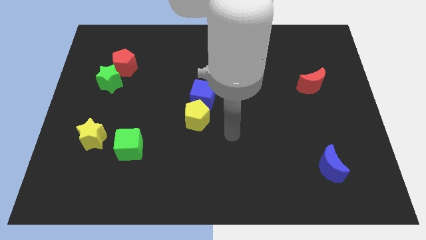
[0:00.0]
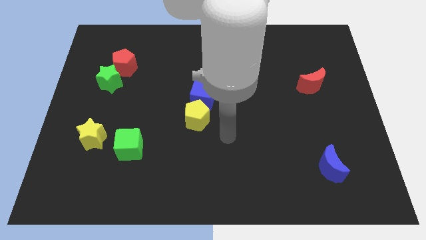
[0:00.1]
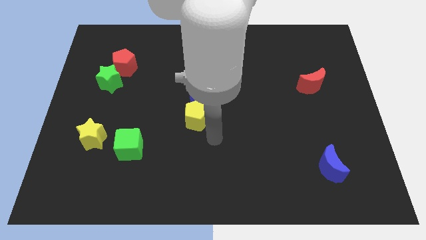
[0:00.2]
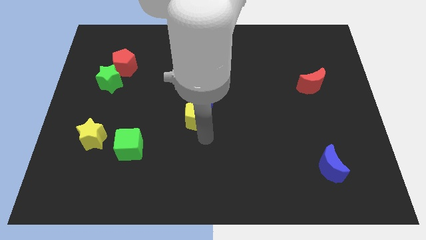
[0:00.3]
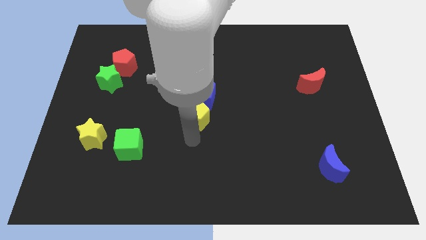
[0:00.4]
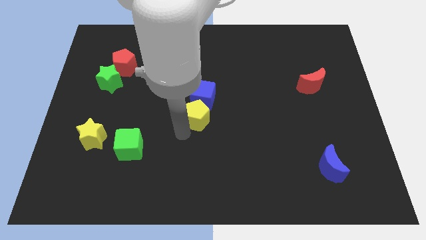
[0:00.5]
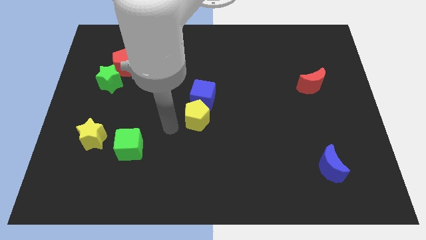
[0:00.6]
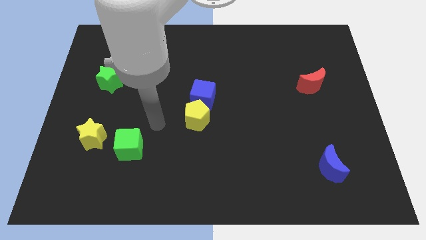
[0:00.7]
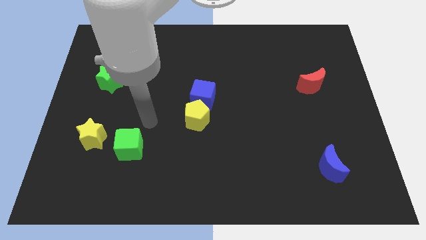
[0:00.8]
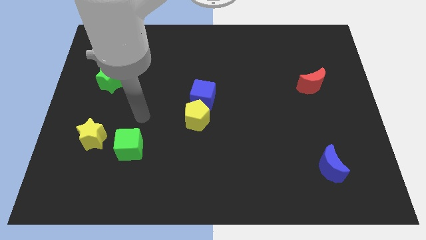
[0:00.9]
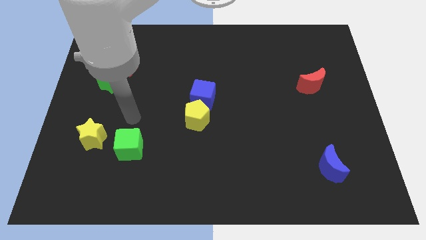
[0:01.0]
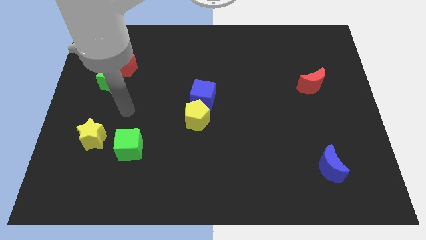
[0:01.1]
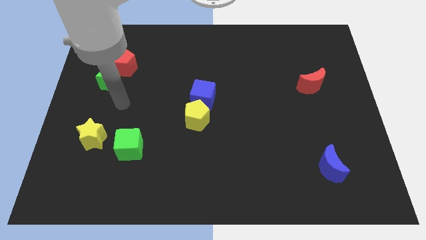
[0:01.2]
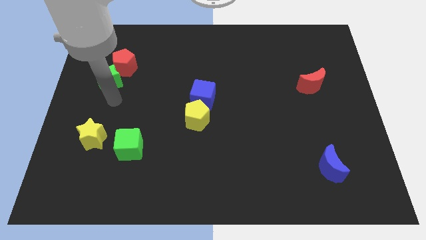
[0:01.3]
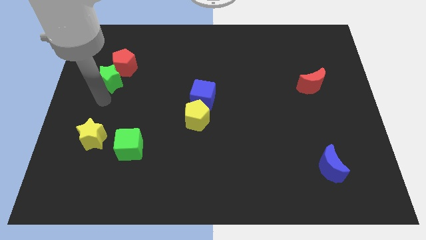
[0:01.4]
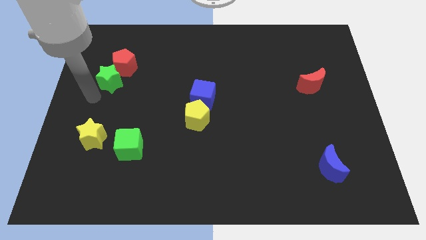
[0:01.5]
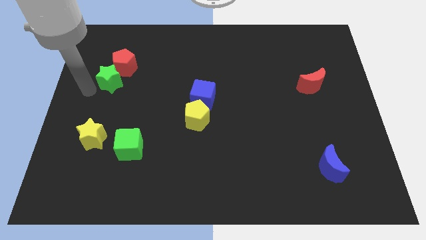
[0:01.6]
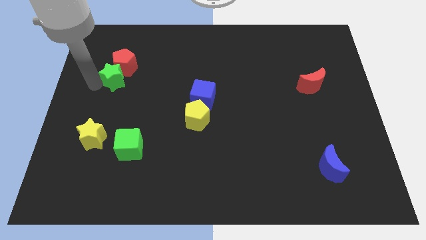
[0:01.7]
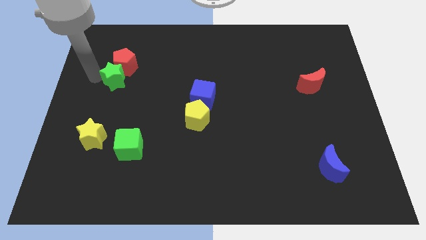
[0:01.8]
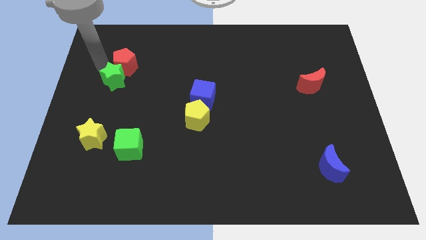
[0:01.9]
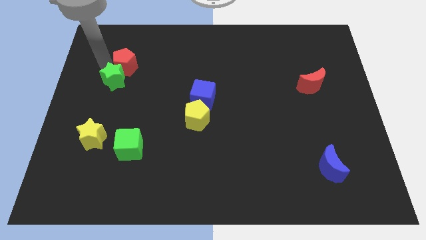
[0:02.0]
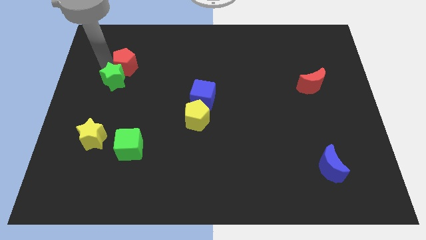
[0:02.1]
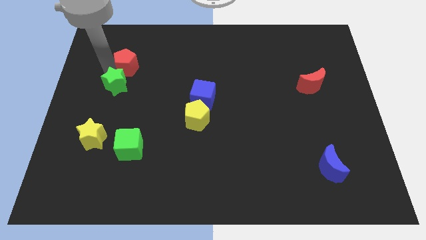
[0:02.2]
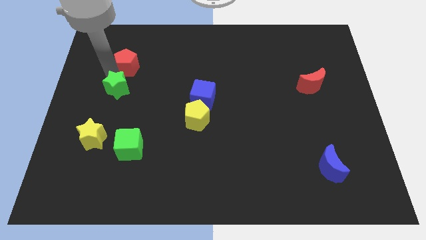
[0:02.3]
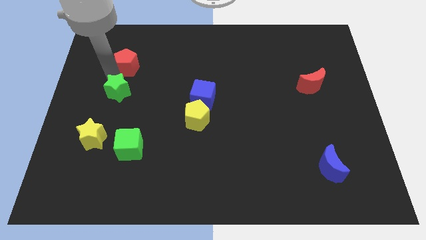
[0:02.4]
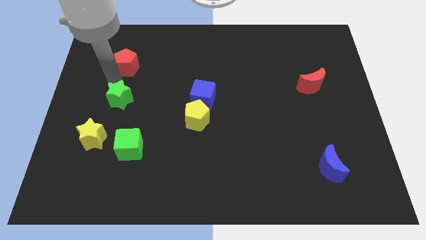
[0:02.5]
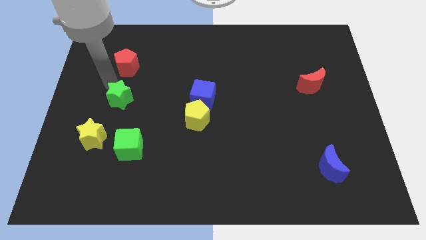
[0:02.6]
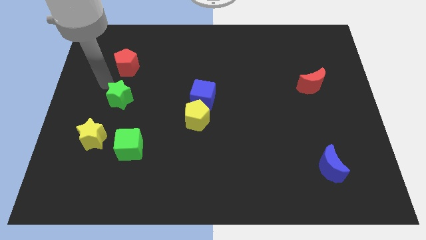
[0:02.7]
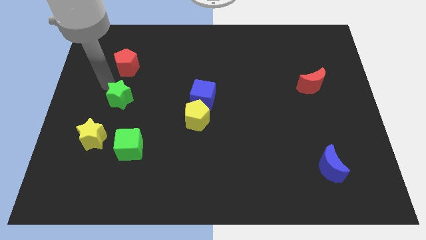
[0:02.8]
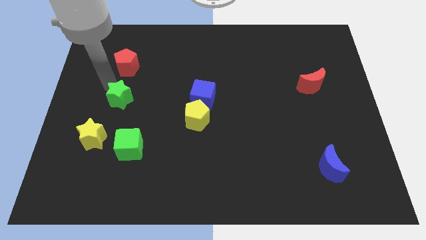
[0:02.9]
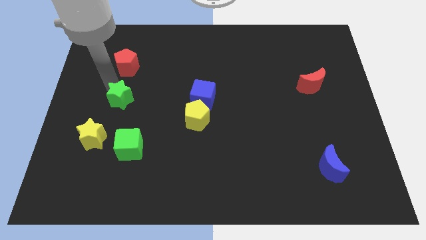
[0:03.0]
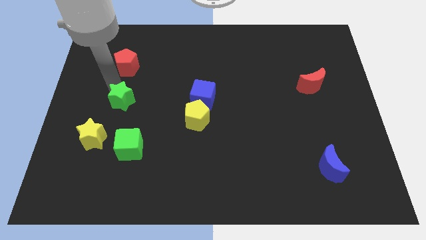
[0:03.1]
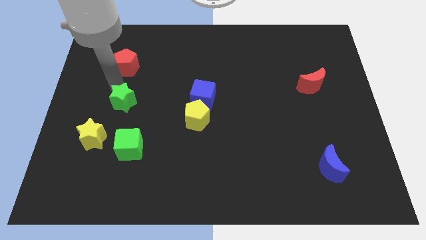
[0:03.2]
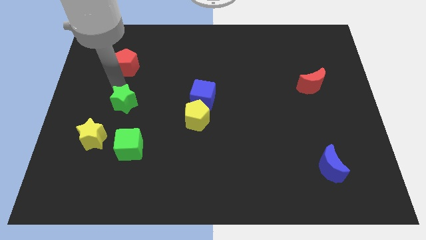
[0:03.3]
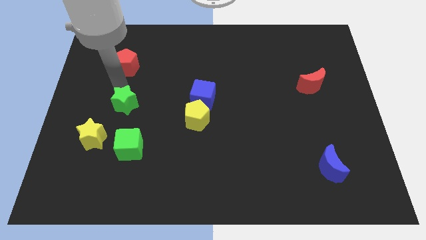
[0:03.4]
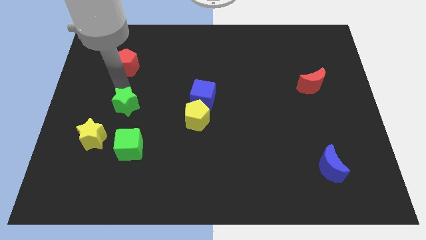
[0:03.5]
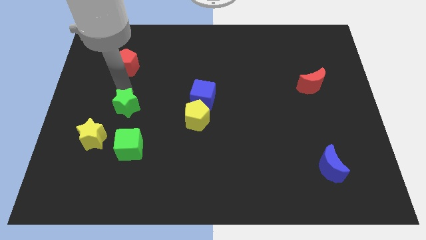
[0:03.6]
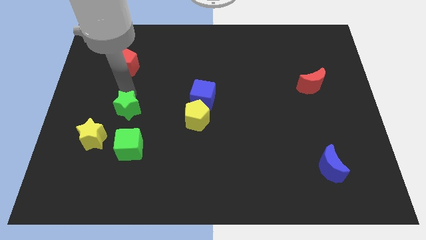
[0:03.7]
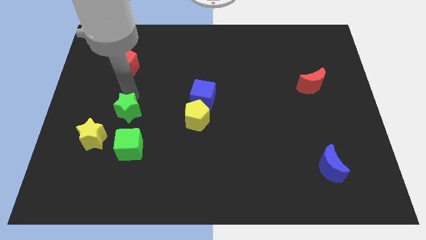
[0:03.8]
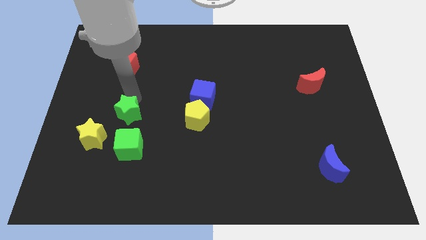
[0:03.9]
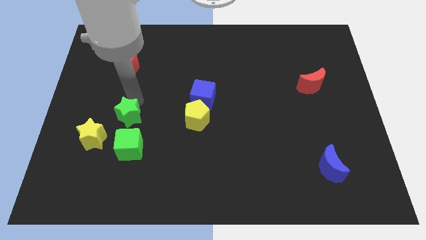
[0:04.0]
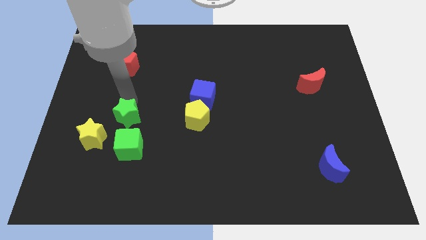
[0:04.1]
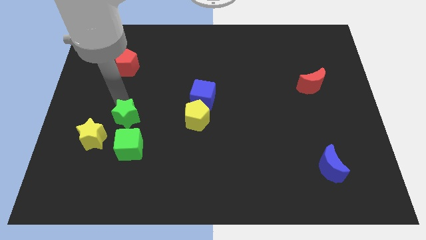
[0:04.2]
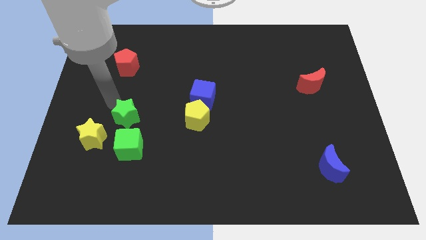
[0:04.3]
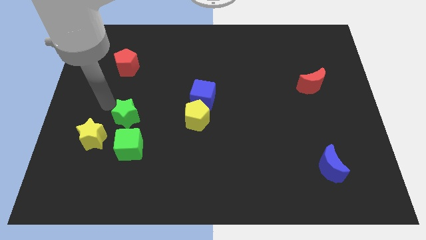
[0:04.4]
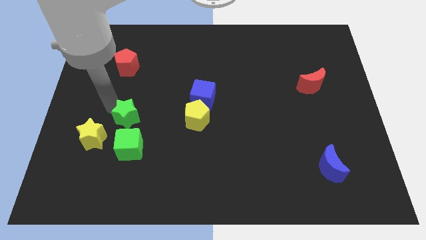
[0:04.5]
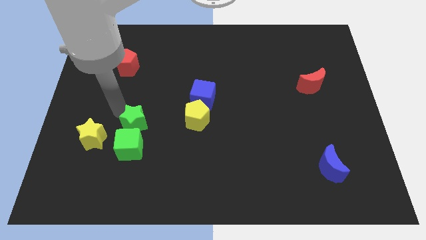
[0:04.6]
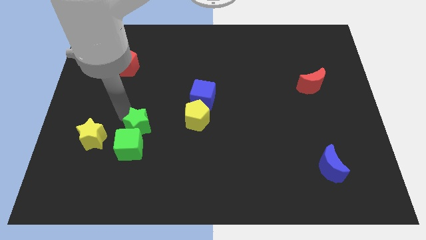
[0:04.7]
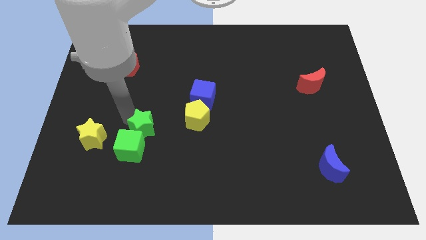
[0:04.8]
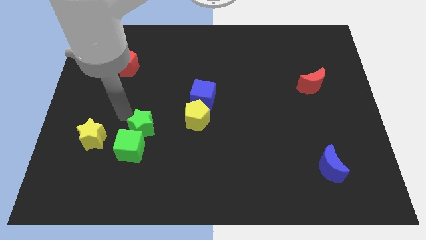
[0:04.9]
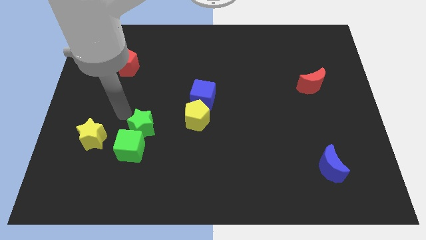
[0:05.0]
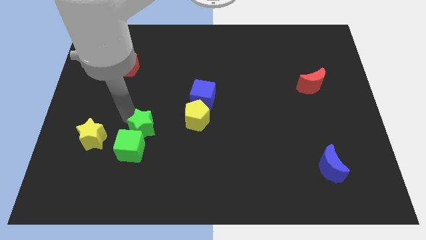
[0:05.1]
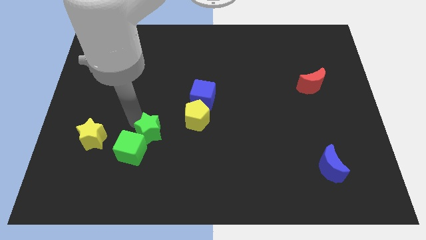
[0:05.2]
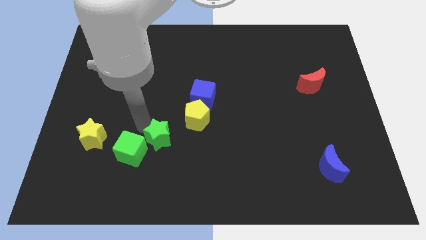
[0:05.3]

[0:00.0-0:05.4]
push the green star down and to the right diagonally

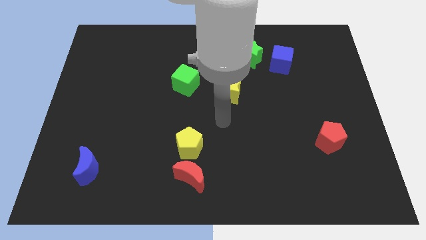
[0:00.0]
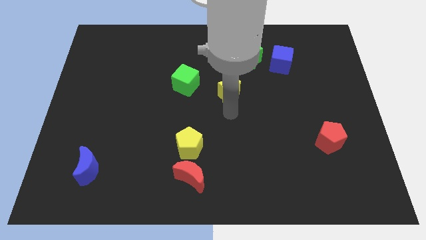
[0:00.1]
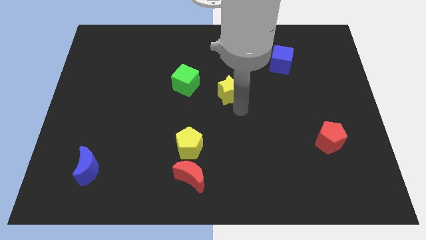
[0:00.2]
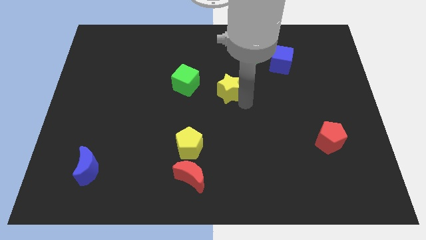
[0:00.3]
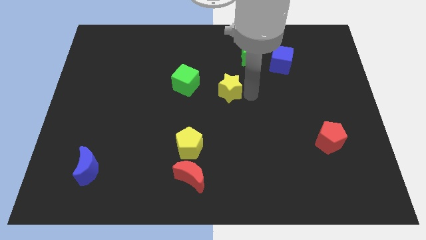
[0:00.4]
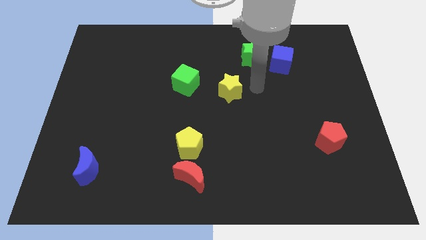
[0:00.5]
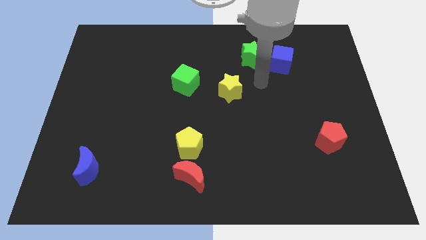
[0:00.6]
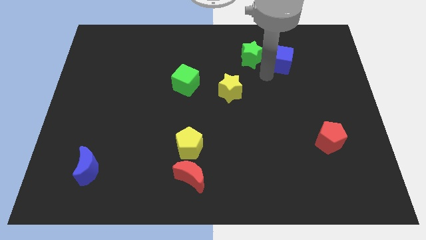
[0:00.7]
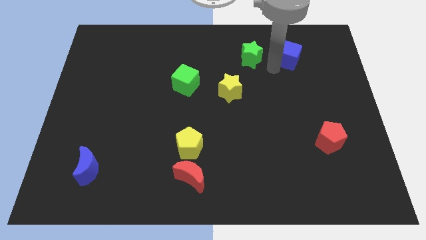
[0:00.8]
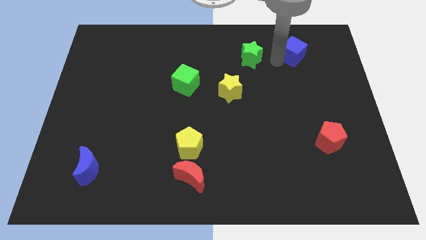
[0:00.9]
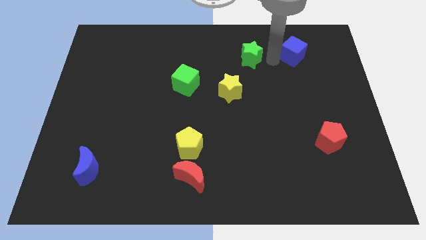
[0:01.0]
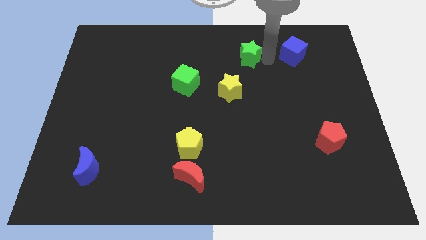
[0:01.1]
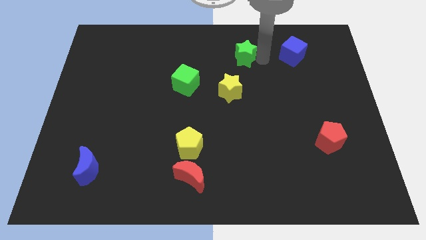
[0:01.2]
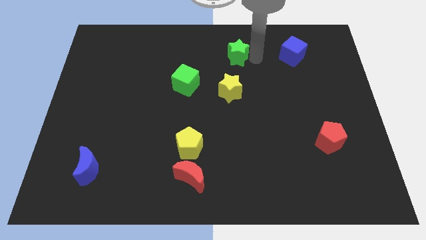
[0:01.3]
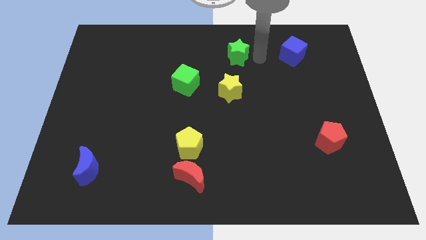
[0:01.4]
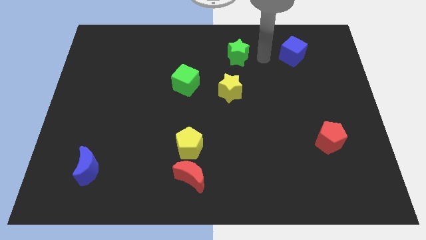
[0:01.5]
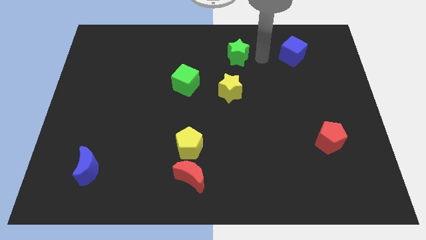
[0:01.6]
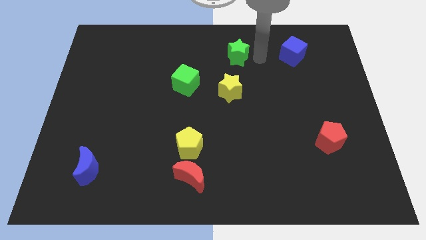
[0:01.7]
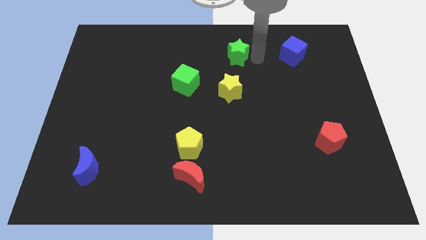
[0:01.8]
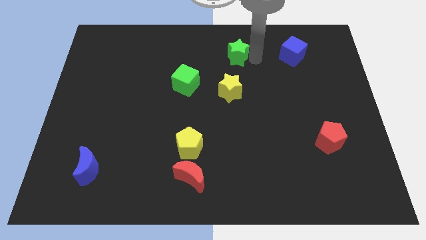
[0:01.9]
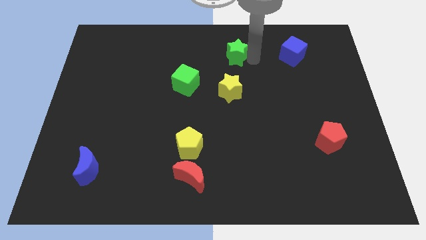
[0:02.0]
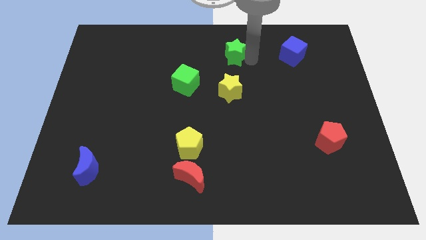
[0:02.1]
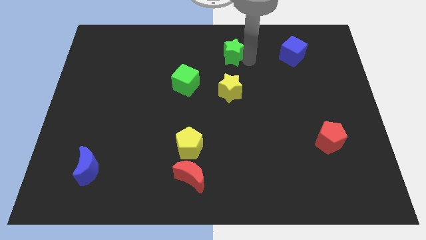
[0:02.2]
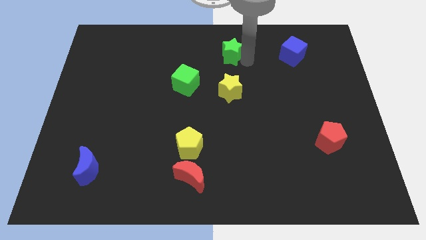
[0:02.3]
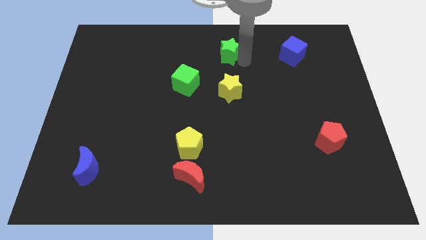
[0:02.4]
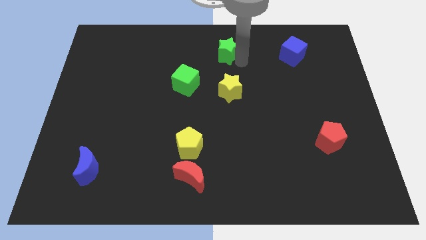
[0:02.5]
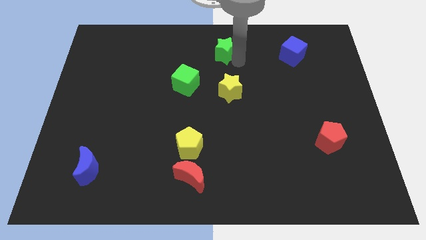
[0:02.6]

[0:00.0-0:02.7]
slide the green star a little to the left
